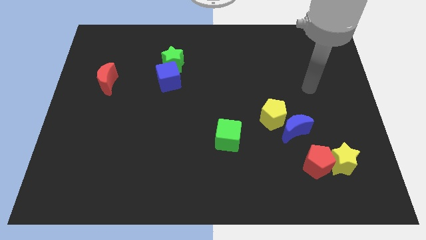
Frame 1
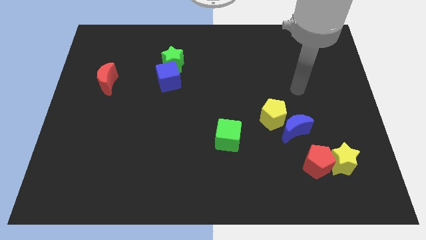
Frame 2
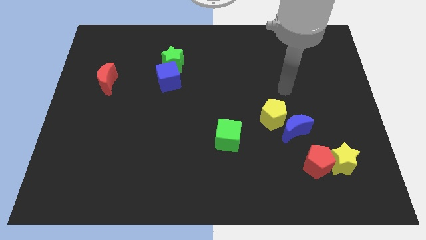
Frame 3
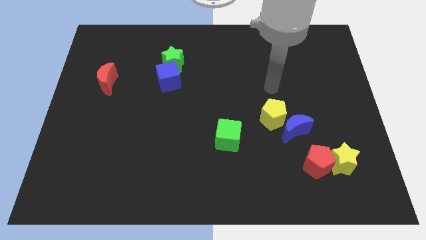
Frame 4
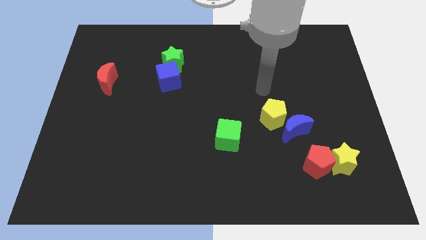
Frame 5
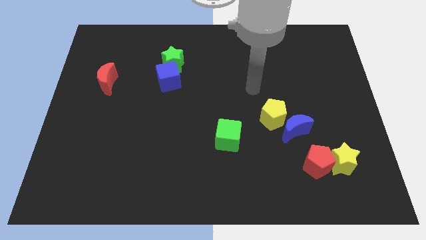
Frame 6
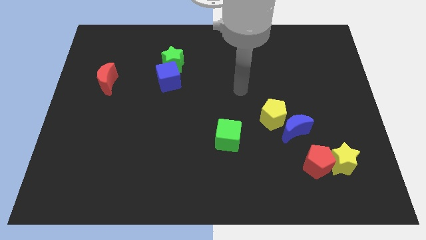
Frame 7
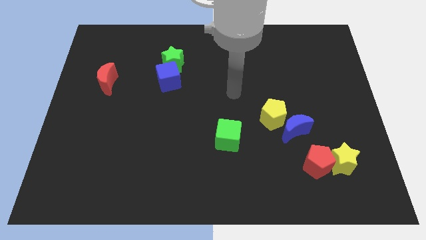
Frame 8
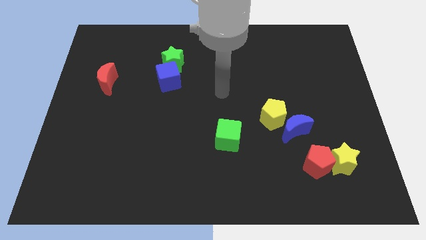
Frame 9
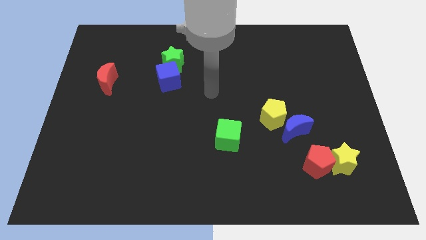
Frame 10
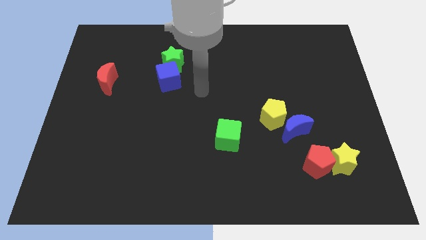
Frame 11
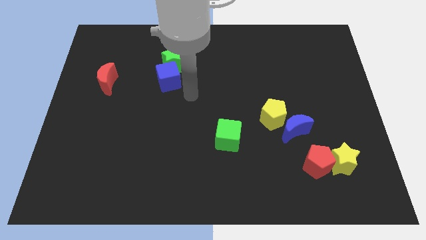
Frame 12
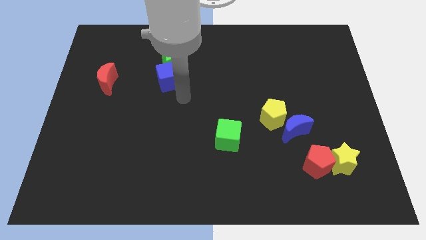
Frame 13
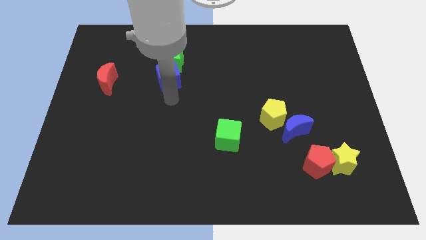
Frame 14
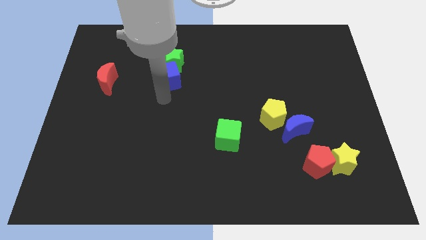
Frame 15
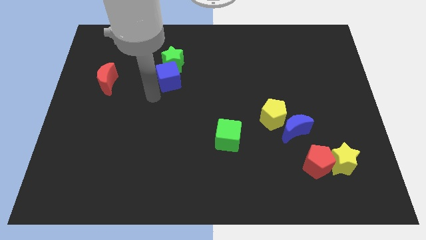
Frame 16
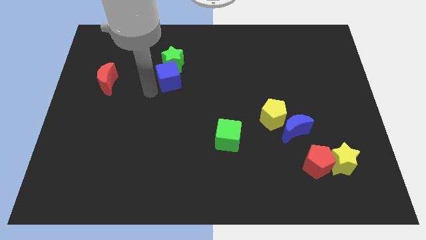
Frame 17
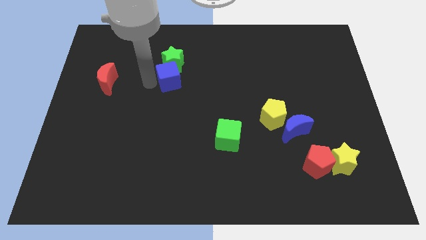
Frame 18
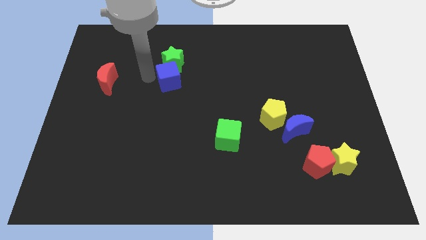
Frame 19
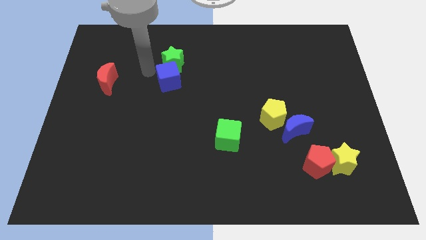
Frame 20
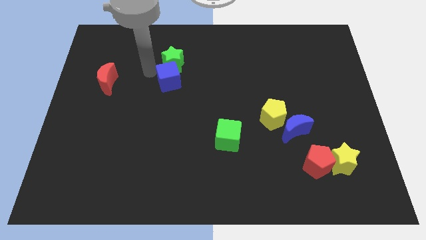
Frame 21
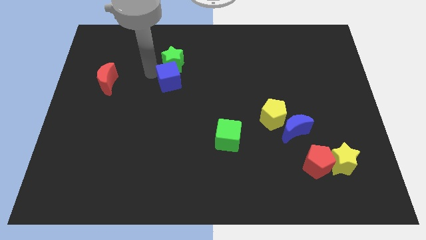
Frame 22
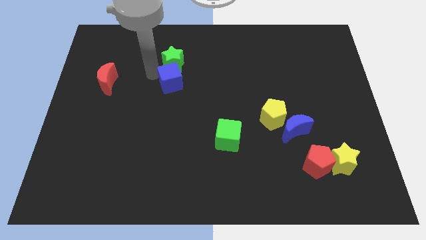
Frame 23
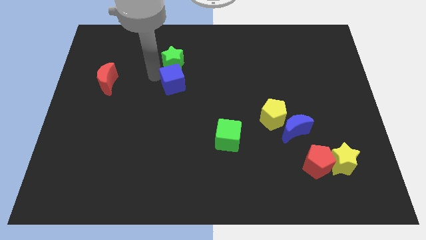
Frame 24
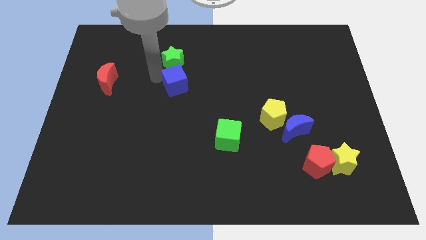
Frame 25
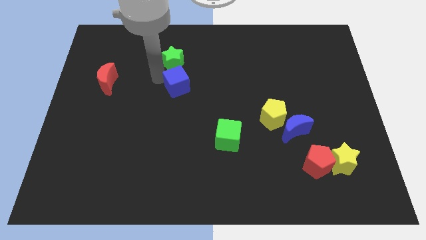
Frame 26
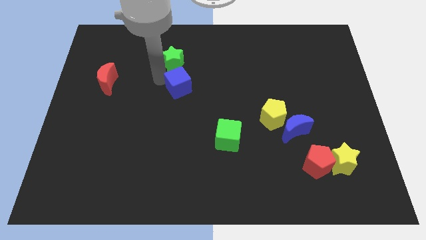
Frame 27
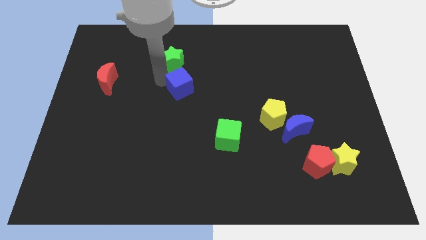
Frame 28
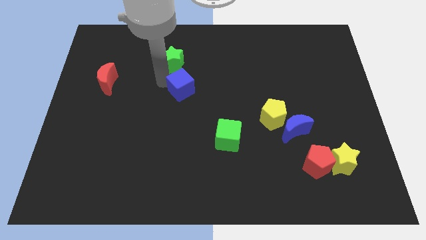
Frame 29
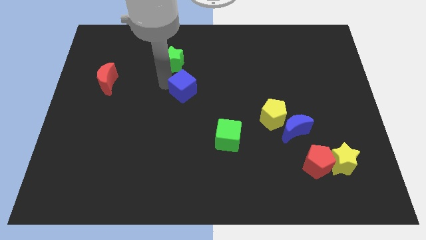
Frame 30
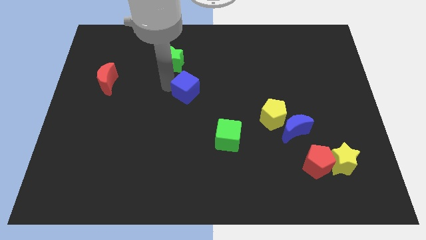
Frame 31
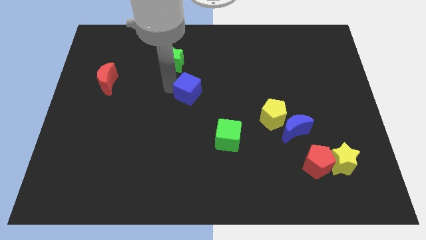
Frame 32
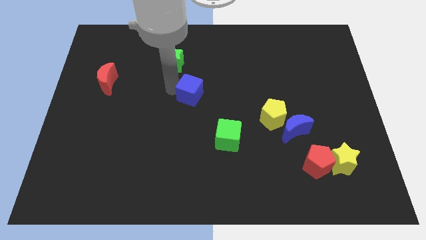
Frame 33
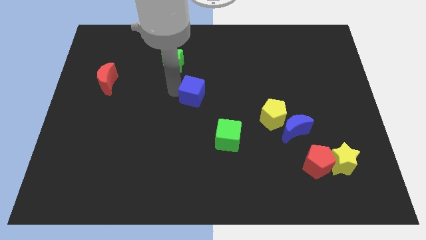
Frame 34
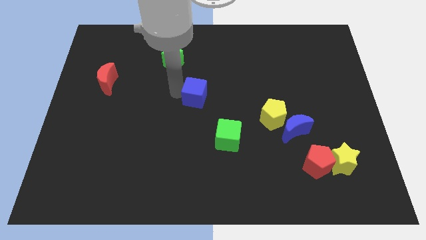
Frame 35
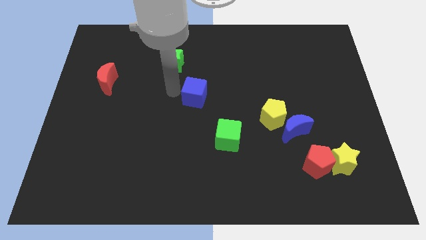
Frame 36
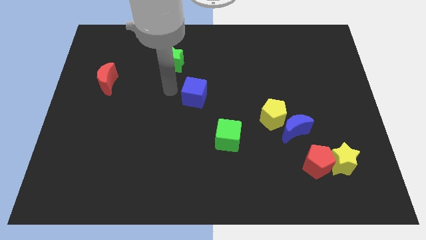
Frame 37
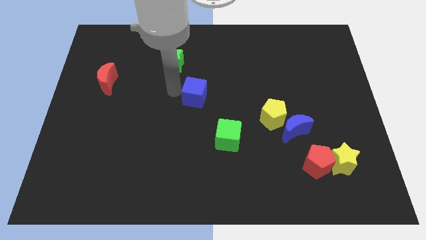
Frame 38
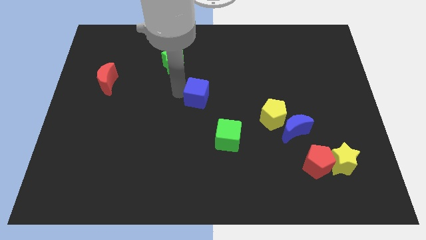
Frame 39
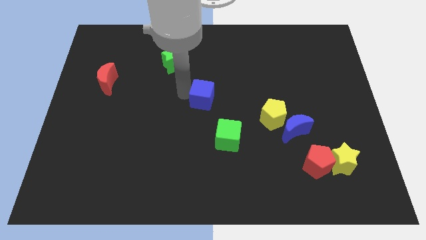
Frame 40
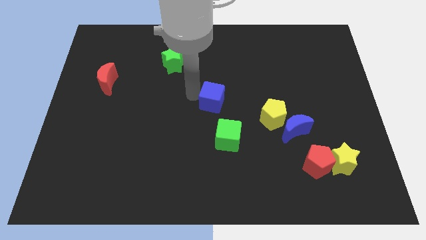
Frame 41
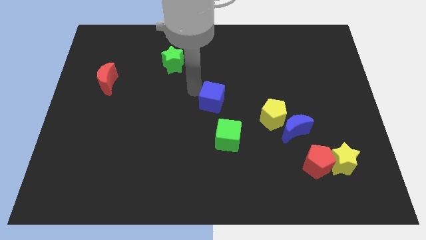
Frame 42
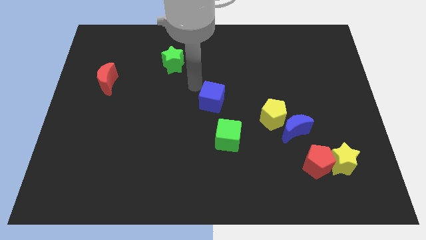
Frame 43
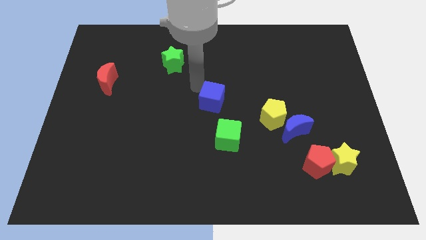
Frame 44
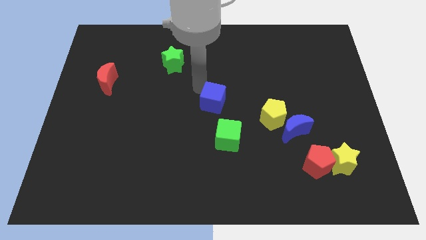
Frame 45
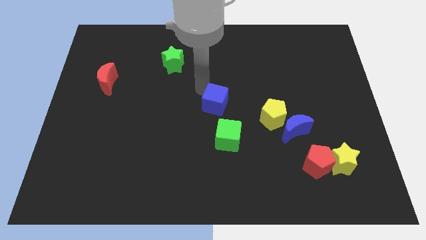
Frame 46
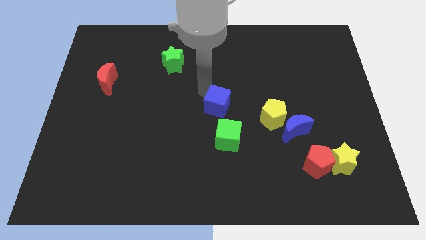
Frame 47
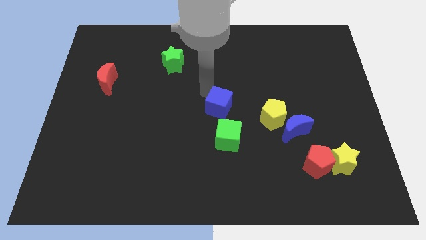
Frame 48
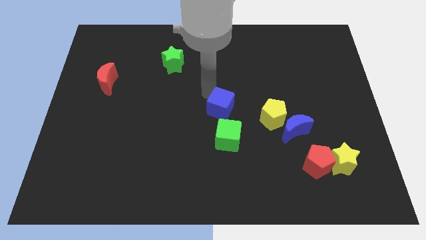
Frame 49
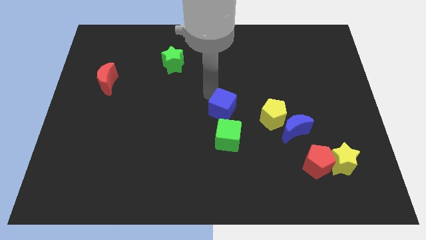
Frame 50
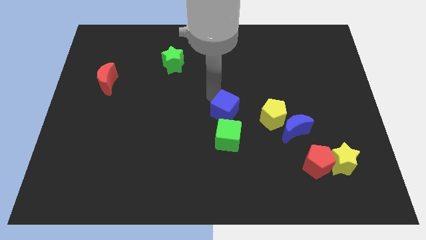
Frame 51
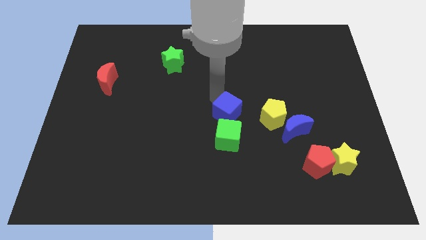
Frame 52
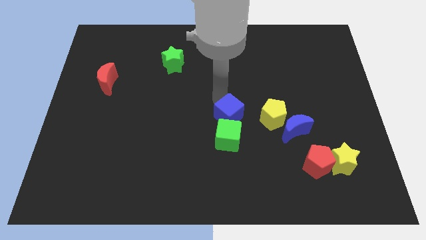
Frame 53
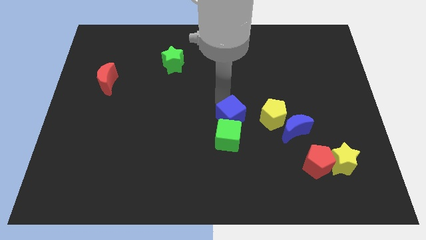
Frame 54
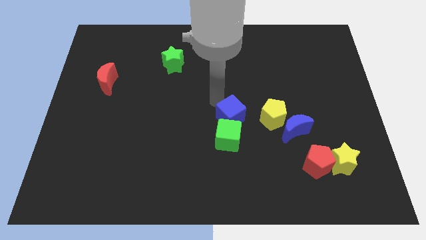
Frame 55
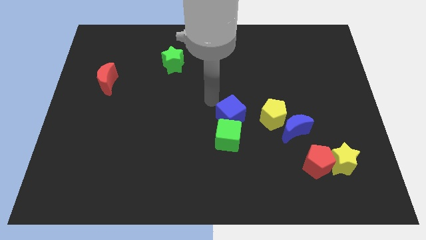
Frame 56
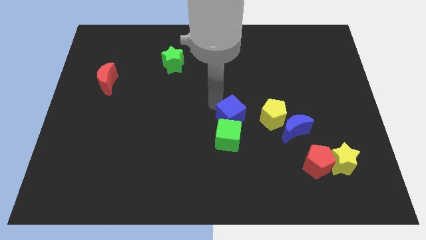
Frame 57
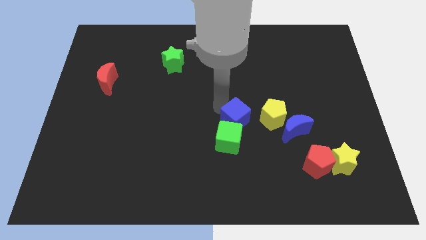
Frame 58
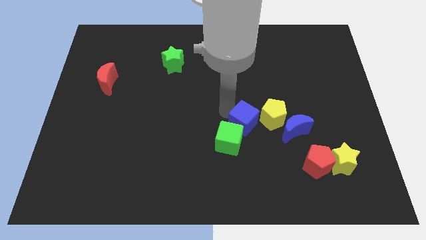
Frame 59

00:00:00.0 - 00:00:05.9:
push the blue cube down and to the right diagonally

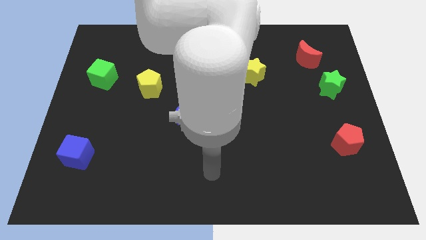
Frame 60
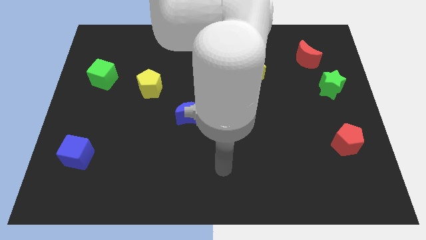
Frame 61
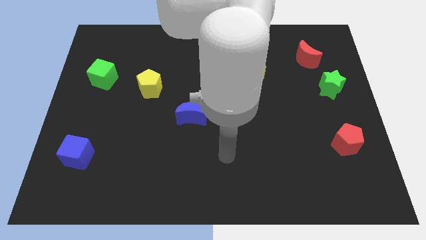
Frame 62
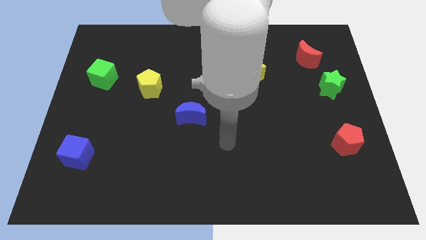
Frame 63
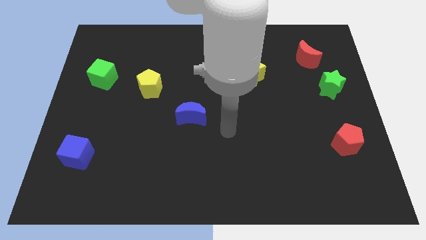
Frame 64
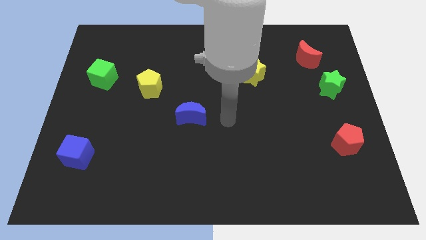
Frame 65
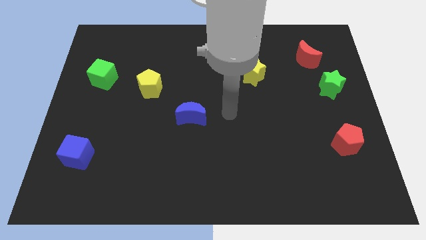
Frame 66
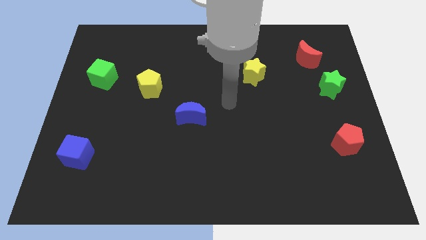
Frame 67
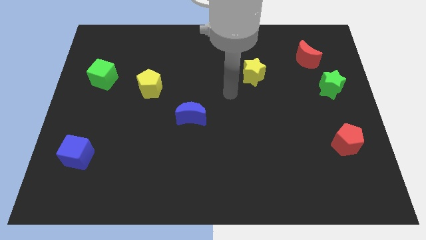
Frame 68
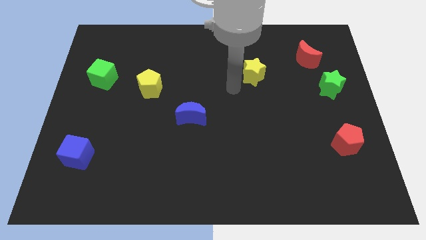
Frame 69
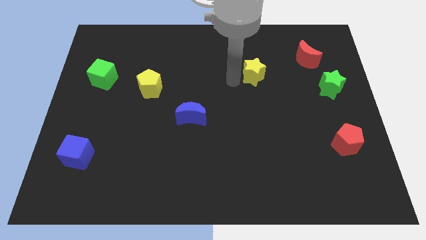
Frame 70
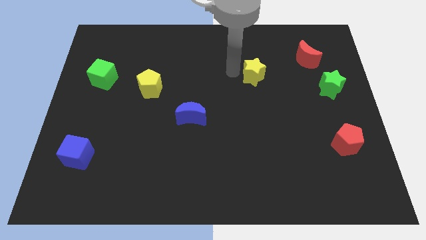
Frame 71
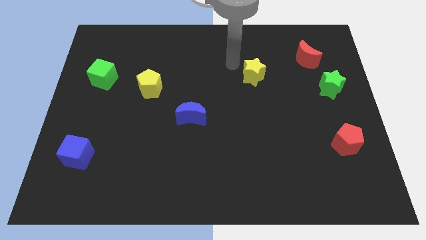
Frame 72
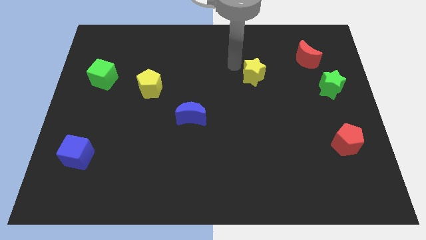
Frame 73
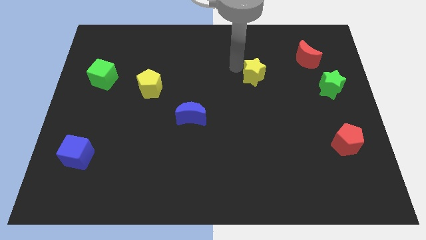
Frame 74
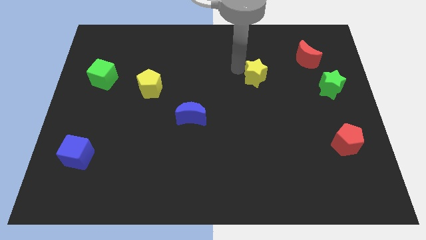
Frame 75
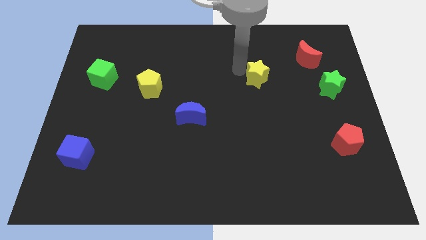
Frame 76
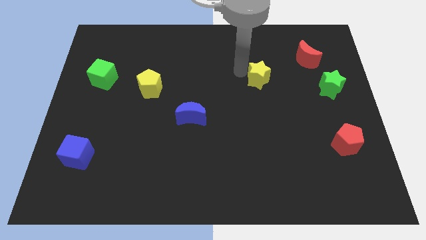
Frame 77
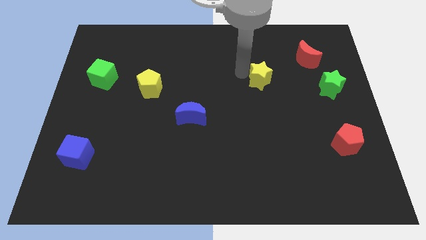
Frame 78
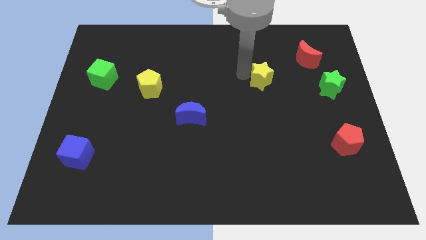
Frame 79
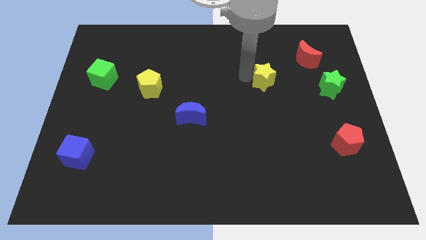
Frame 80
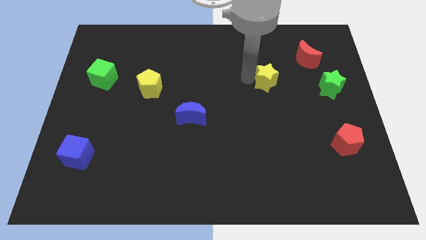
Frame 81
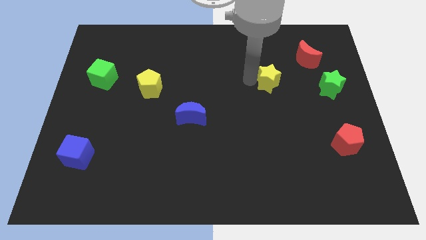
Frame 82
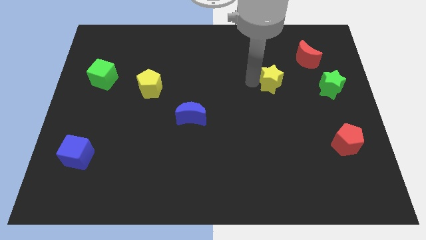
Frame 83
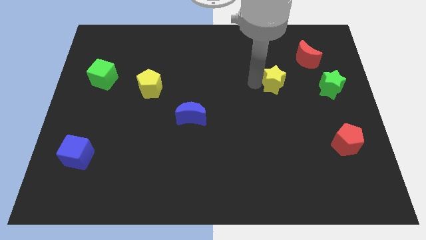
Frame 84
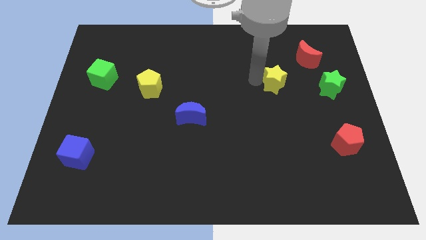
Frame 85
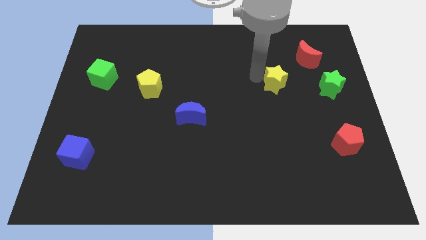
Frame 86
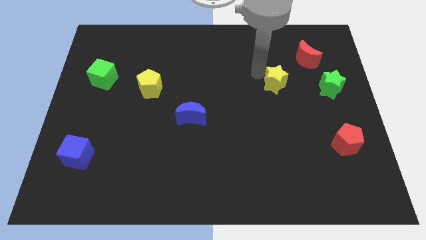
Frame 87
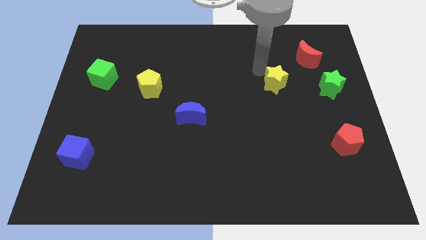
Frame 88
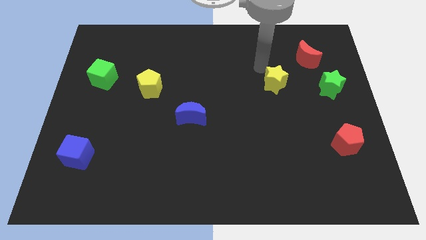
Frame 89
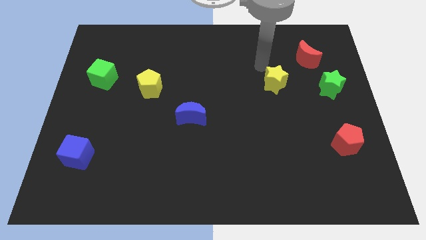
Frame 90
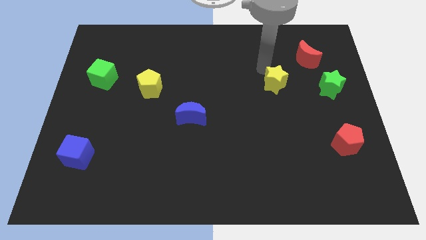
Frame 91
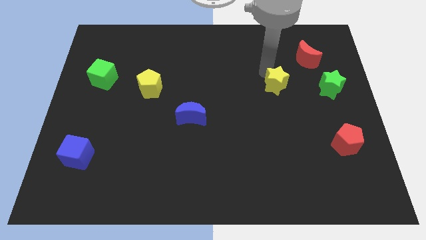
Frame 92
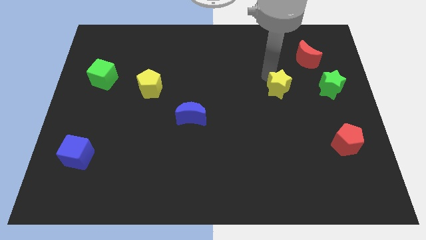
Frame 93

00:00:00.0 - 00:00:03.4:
slightly push the yellow star diagonally down and right
